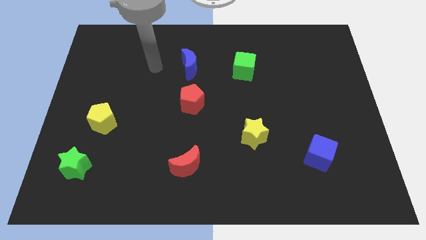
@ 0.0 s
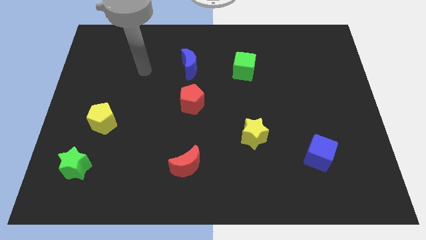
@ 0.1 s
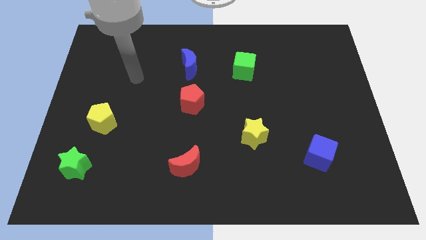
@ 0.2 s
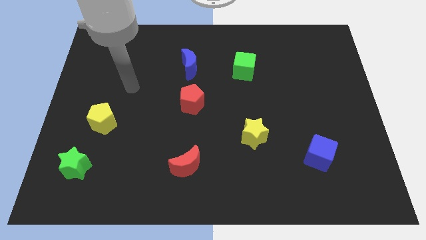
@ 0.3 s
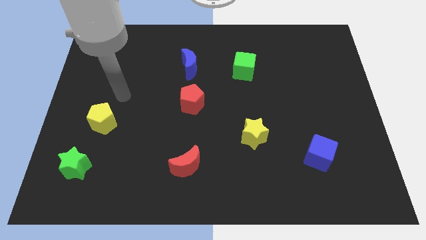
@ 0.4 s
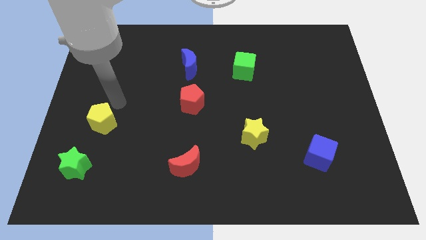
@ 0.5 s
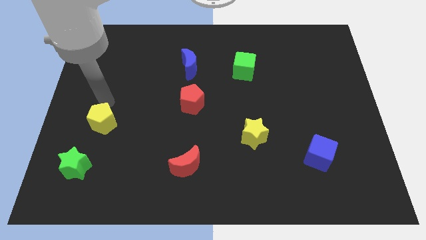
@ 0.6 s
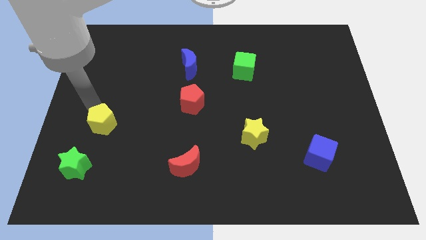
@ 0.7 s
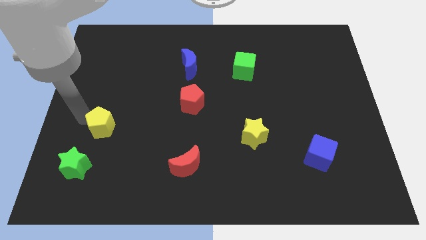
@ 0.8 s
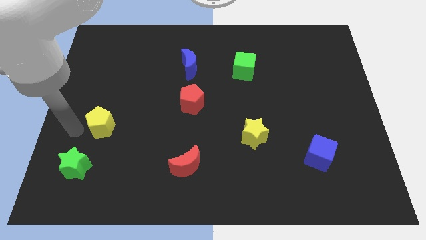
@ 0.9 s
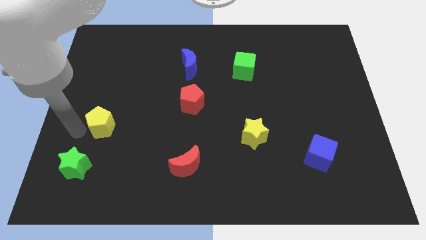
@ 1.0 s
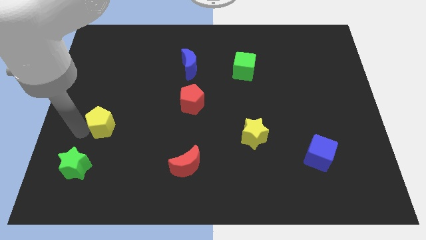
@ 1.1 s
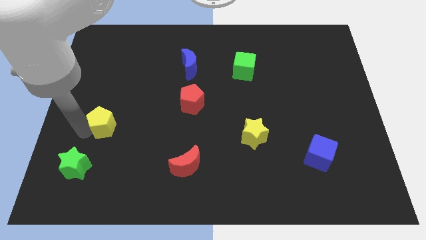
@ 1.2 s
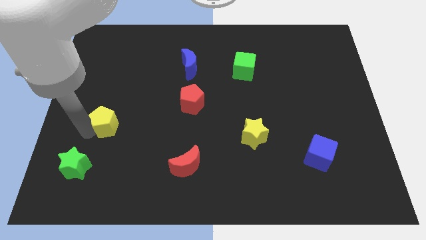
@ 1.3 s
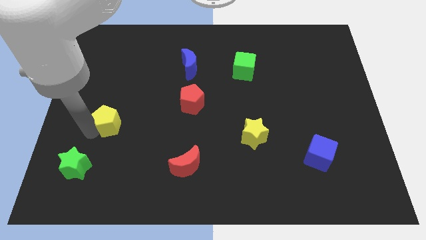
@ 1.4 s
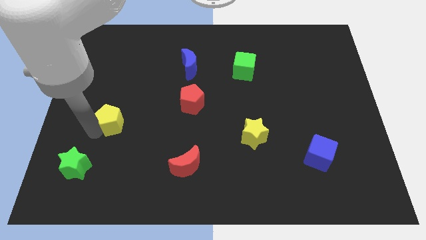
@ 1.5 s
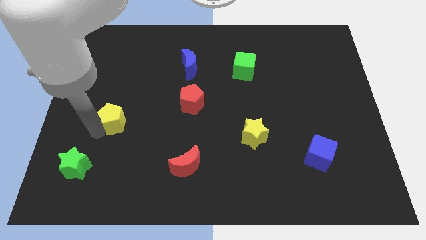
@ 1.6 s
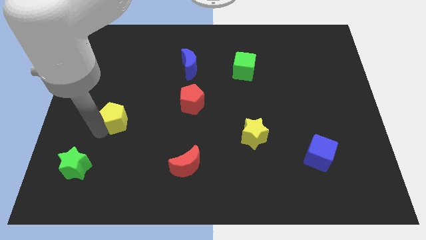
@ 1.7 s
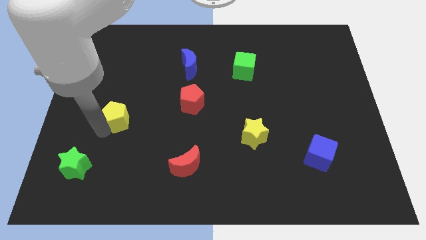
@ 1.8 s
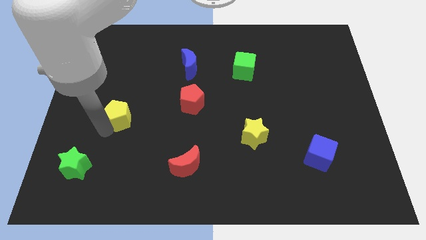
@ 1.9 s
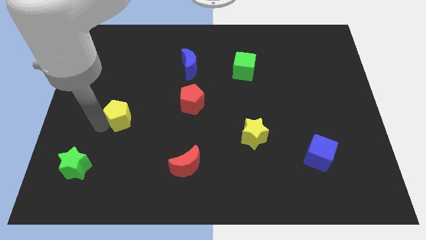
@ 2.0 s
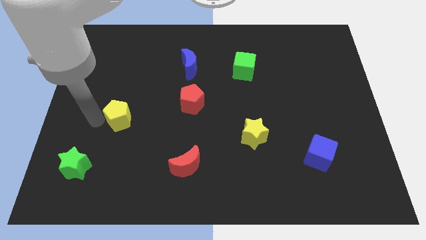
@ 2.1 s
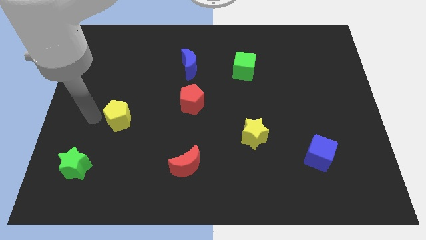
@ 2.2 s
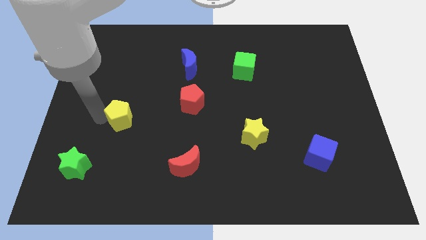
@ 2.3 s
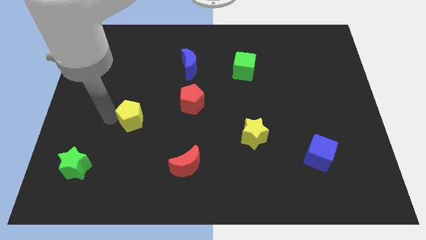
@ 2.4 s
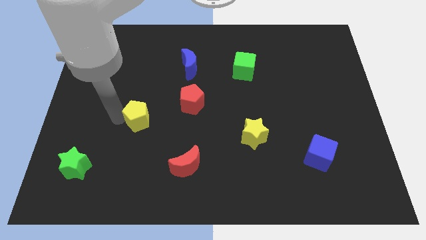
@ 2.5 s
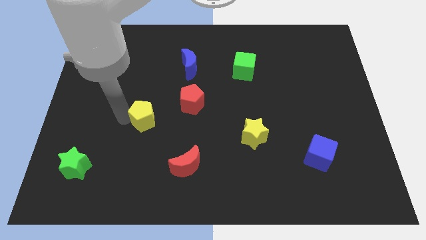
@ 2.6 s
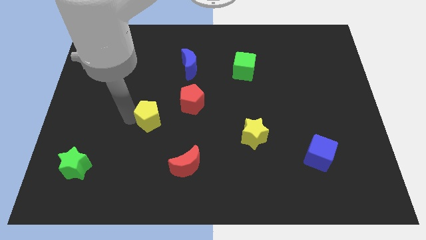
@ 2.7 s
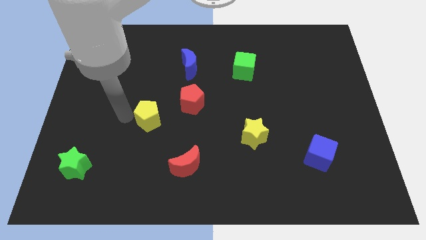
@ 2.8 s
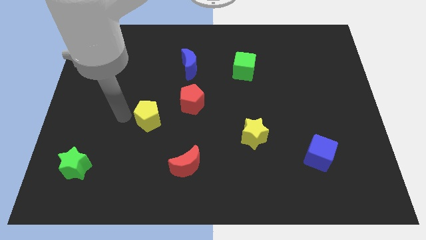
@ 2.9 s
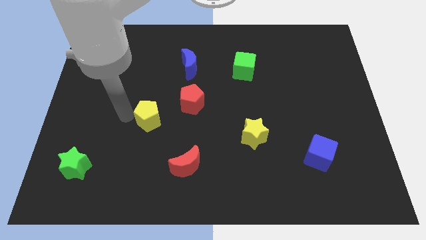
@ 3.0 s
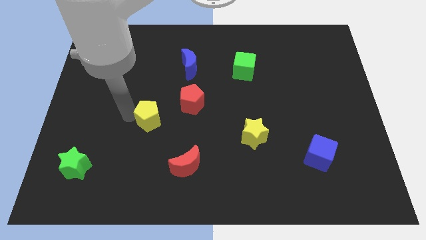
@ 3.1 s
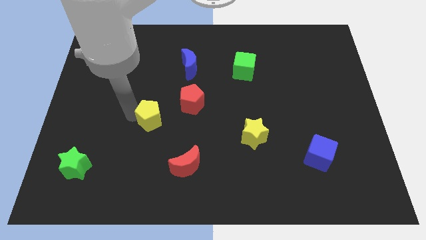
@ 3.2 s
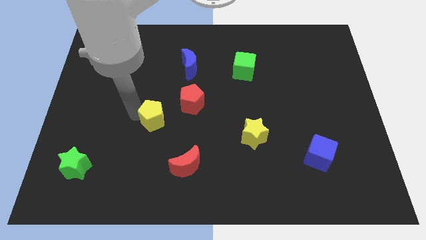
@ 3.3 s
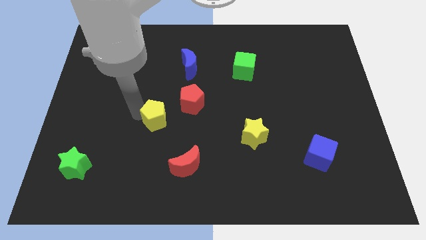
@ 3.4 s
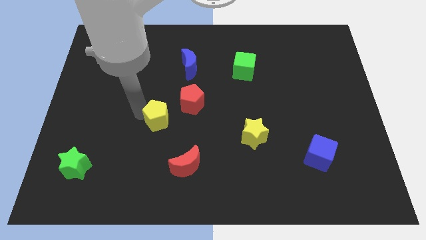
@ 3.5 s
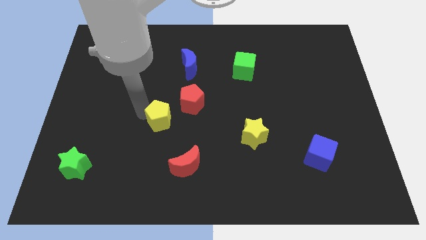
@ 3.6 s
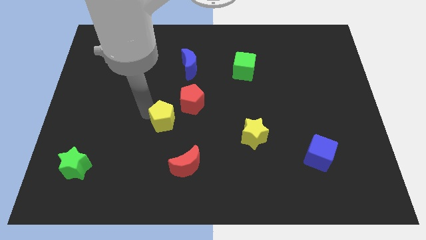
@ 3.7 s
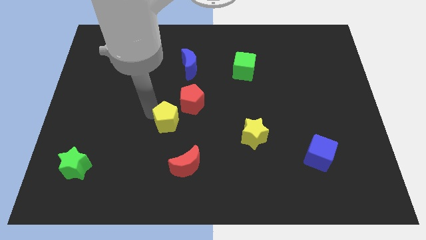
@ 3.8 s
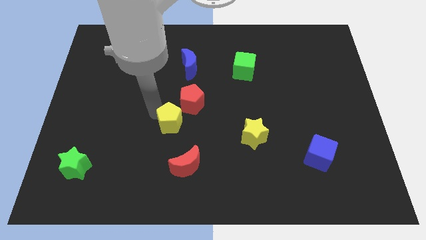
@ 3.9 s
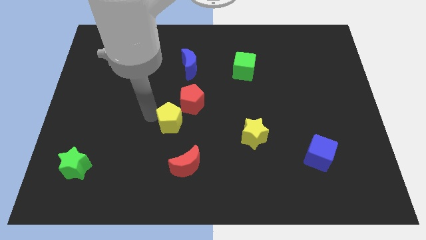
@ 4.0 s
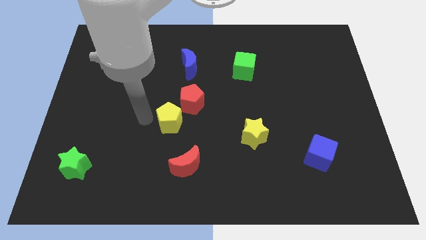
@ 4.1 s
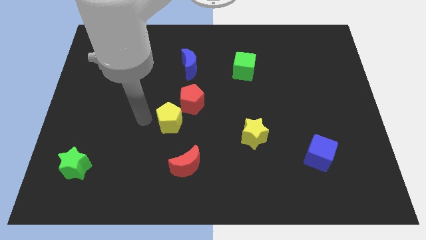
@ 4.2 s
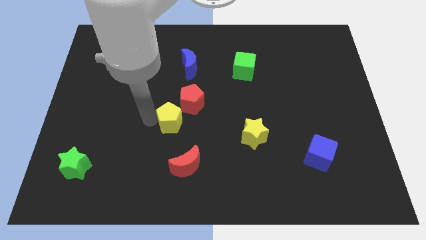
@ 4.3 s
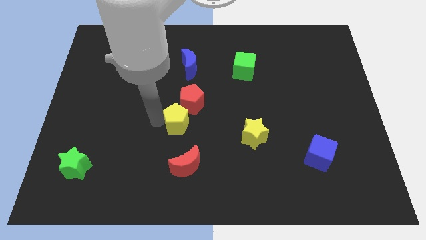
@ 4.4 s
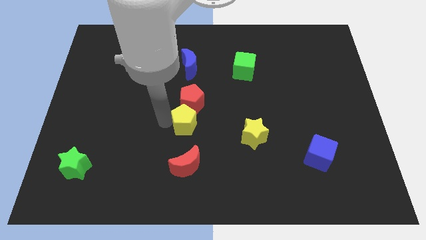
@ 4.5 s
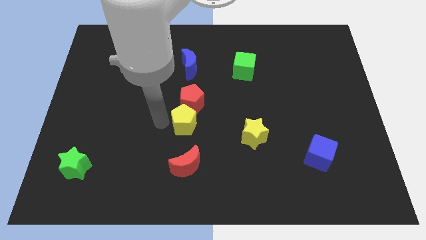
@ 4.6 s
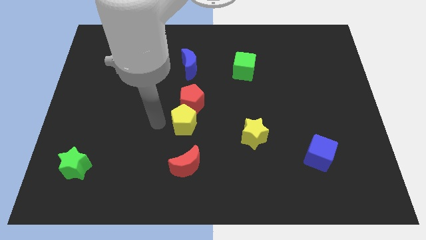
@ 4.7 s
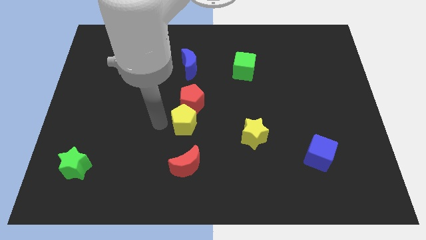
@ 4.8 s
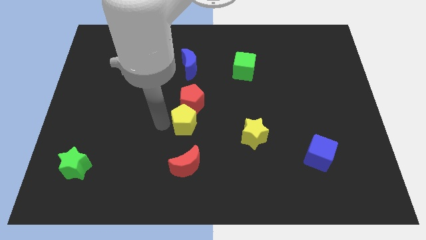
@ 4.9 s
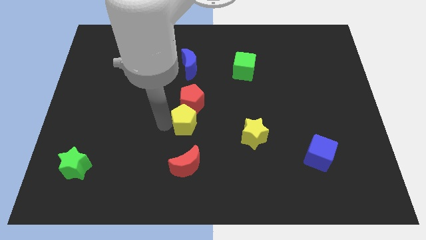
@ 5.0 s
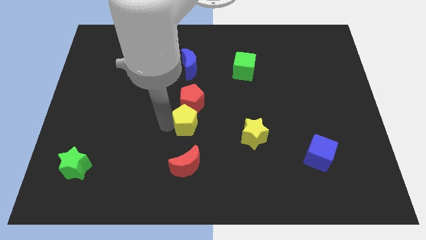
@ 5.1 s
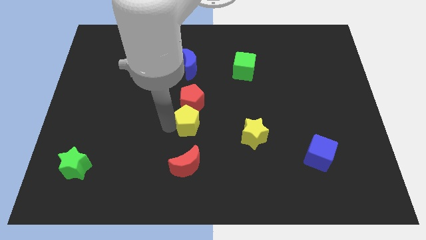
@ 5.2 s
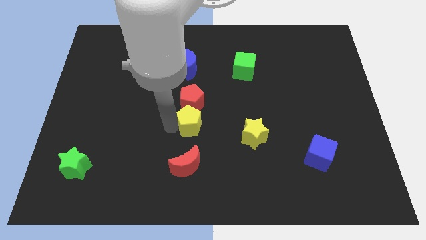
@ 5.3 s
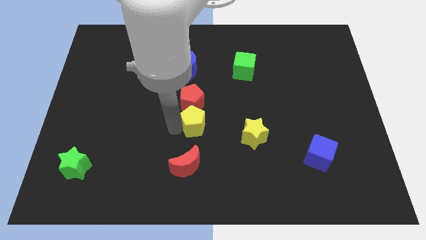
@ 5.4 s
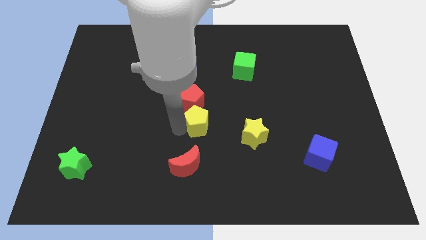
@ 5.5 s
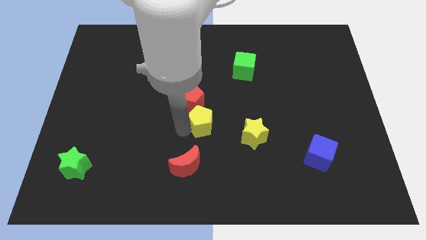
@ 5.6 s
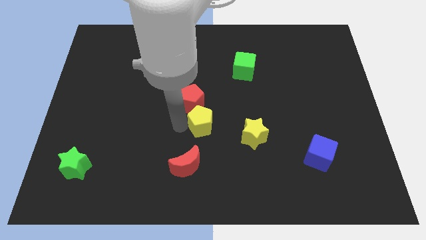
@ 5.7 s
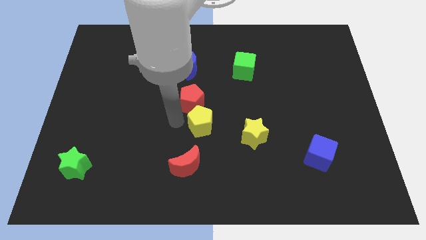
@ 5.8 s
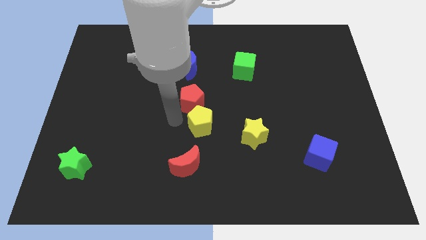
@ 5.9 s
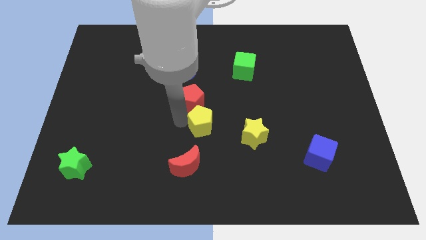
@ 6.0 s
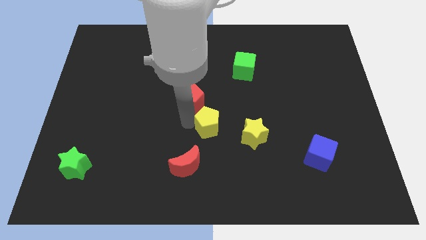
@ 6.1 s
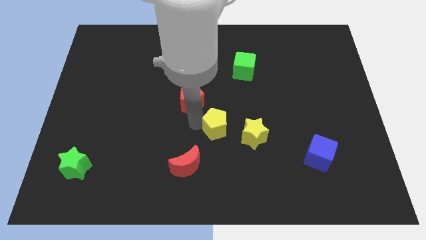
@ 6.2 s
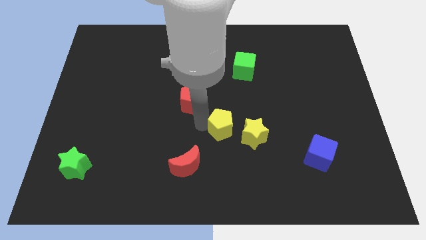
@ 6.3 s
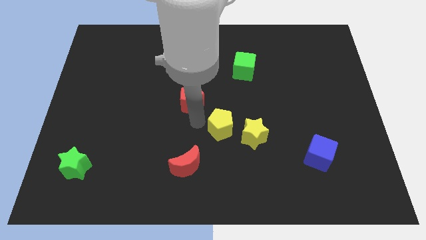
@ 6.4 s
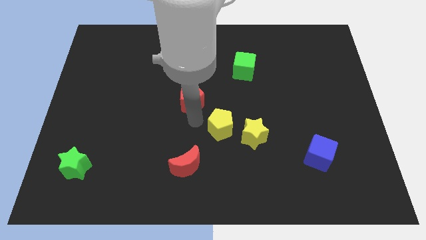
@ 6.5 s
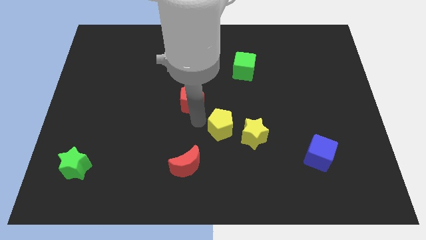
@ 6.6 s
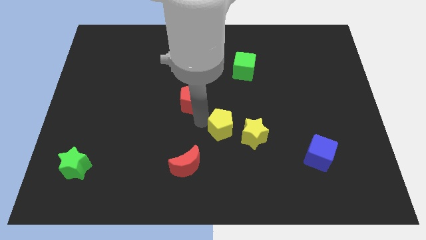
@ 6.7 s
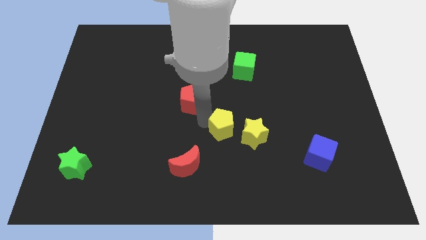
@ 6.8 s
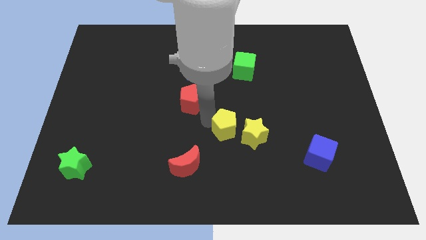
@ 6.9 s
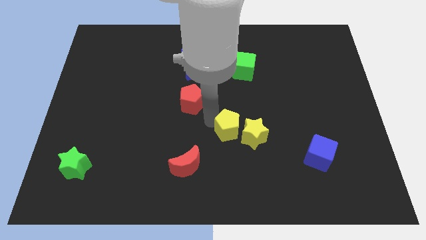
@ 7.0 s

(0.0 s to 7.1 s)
push the yellow pentagon close to the yellow star
